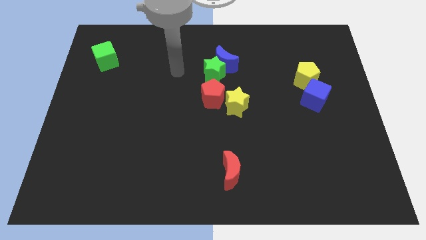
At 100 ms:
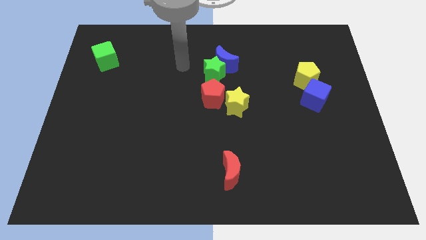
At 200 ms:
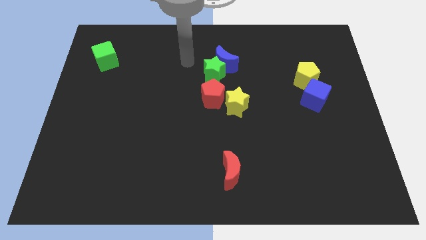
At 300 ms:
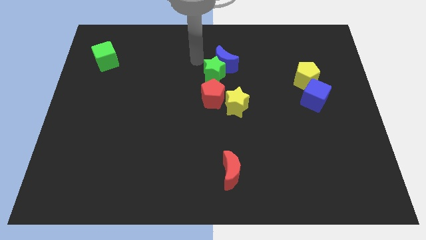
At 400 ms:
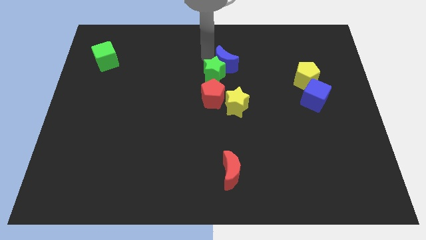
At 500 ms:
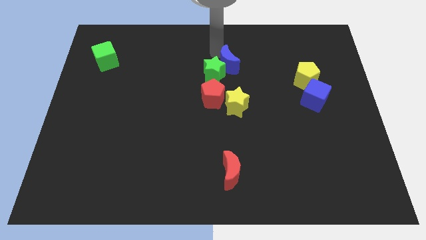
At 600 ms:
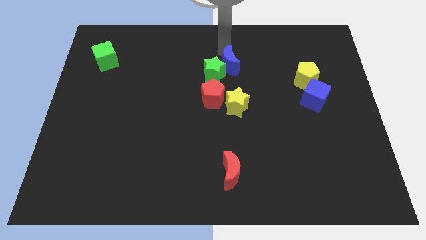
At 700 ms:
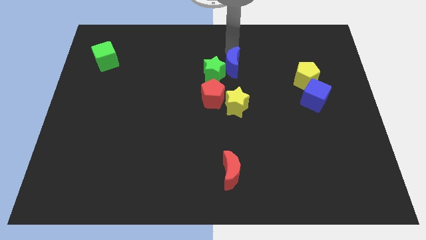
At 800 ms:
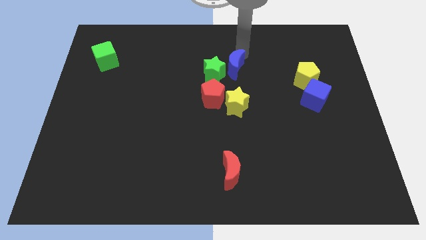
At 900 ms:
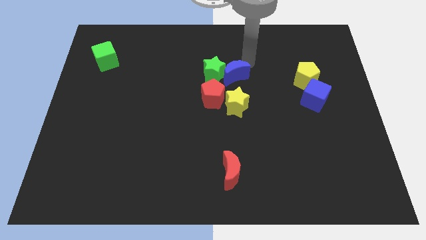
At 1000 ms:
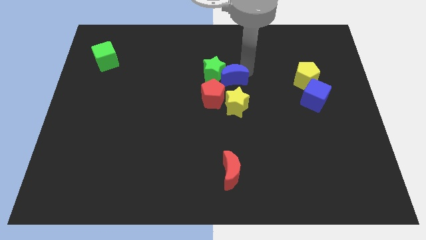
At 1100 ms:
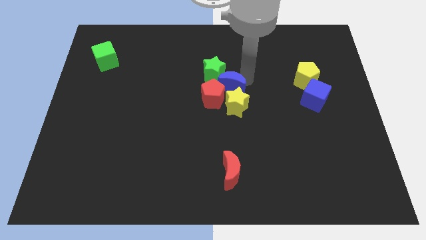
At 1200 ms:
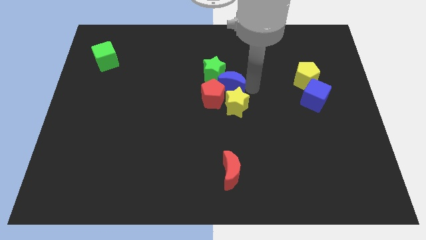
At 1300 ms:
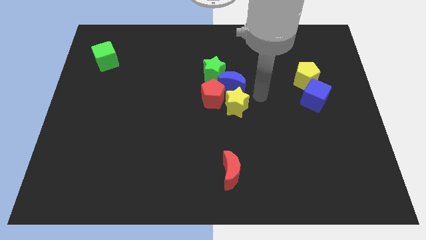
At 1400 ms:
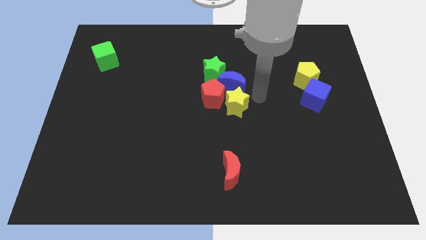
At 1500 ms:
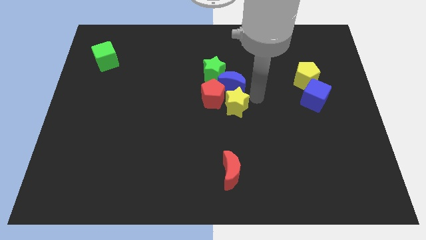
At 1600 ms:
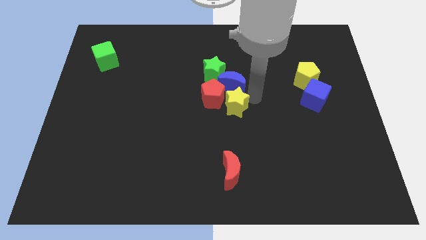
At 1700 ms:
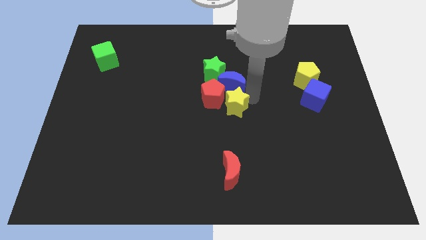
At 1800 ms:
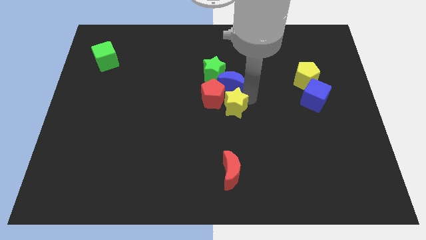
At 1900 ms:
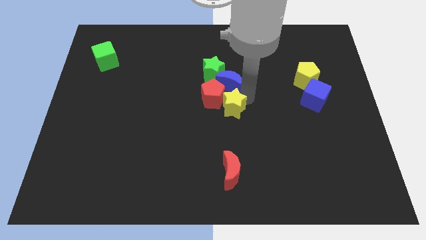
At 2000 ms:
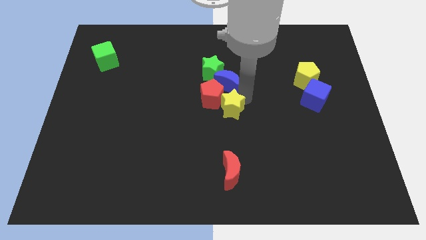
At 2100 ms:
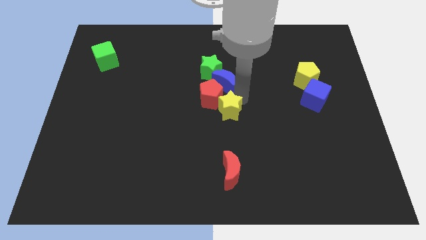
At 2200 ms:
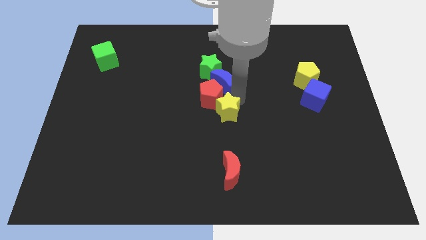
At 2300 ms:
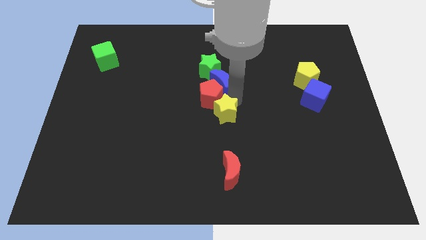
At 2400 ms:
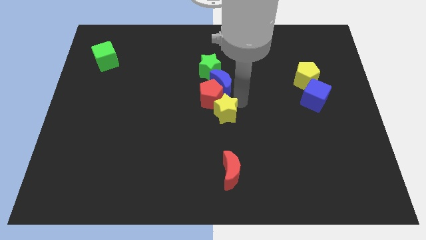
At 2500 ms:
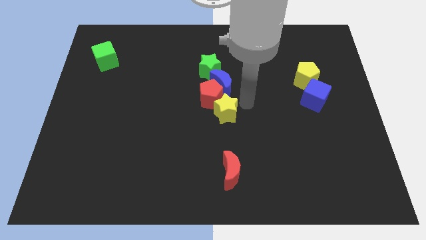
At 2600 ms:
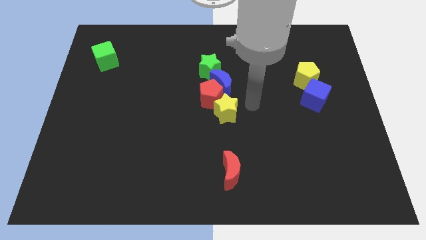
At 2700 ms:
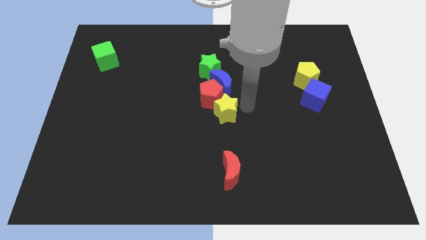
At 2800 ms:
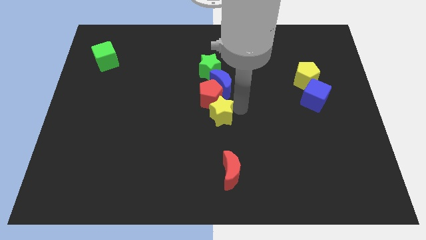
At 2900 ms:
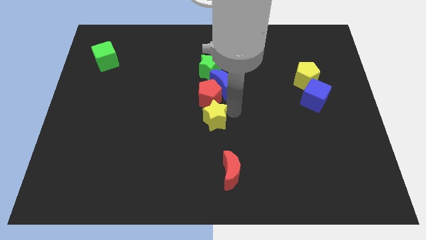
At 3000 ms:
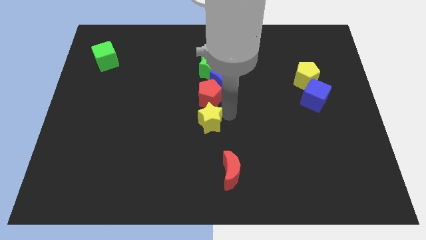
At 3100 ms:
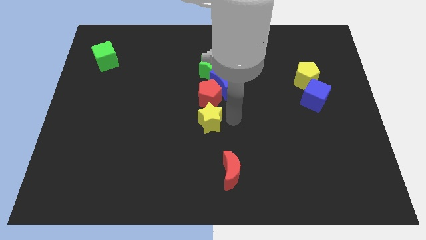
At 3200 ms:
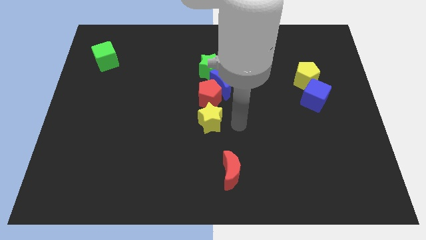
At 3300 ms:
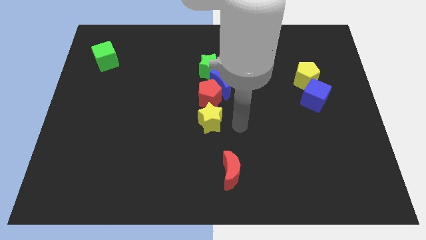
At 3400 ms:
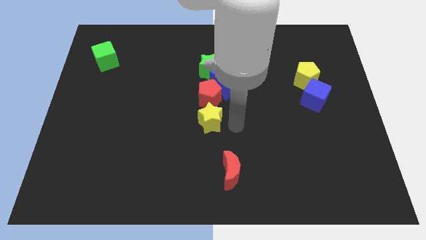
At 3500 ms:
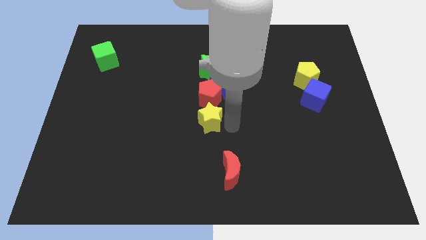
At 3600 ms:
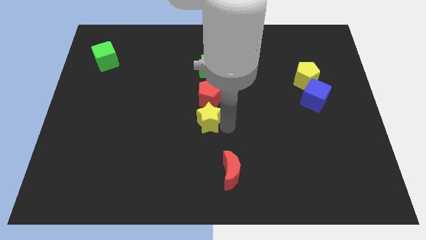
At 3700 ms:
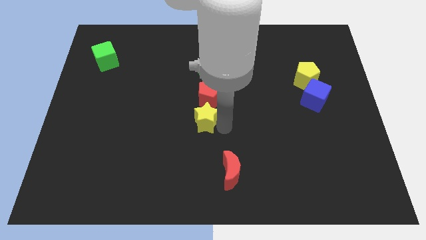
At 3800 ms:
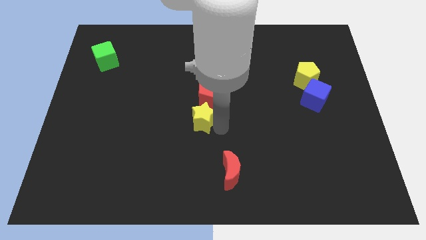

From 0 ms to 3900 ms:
push the yellow star a little bit to the left

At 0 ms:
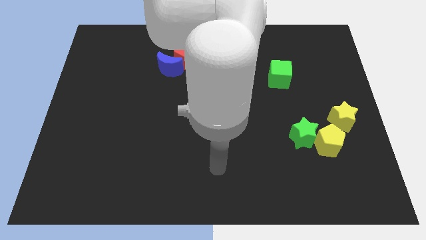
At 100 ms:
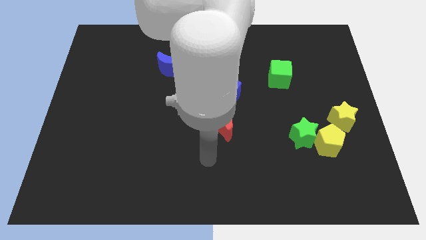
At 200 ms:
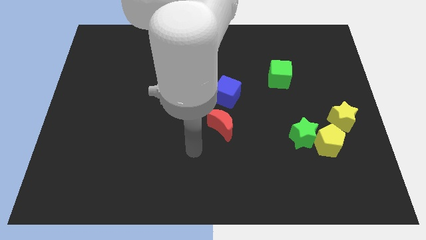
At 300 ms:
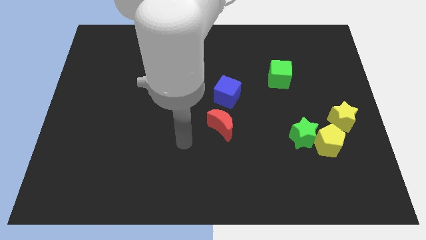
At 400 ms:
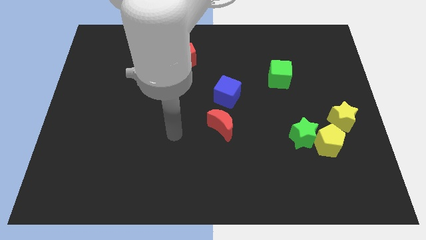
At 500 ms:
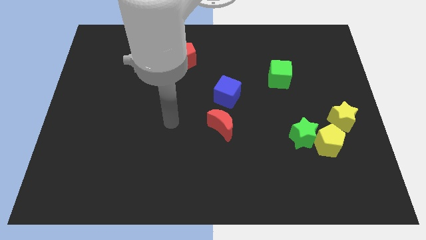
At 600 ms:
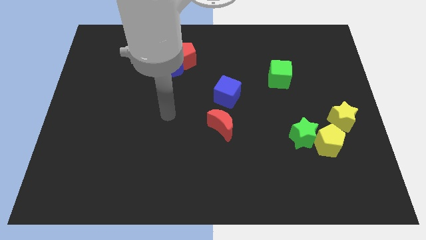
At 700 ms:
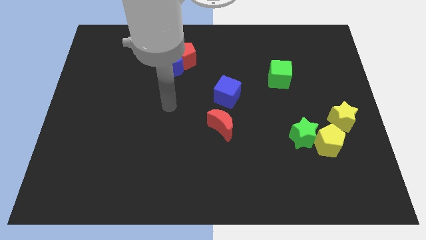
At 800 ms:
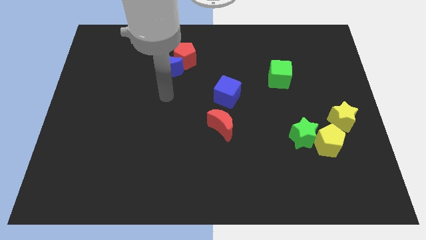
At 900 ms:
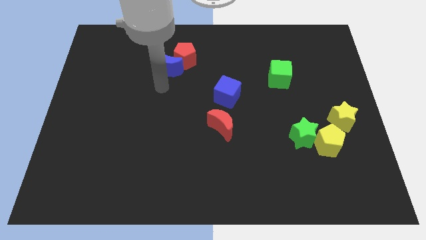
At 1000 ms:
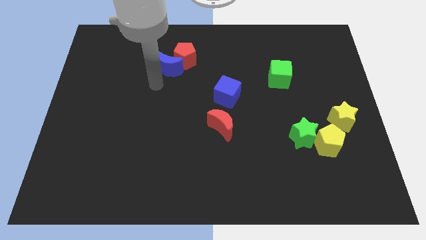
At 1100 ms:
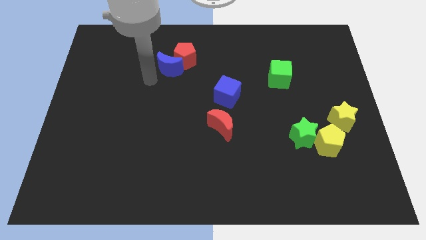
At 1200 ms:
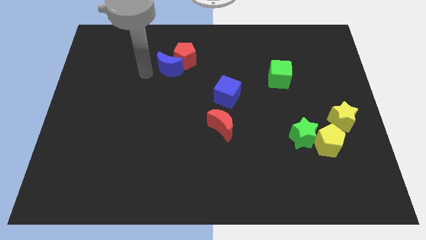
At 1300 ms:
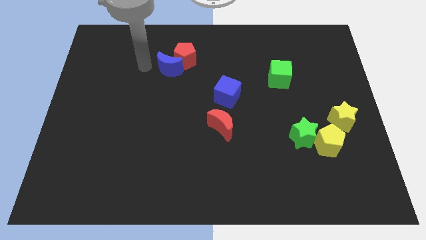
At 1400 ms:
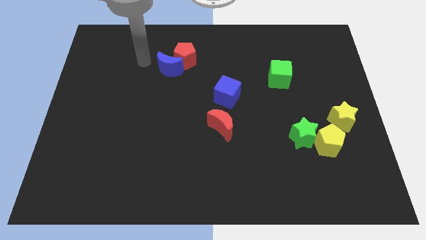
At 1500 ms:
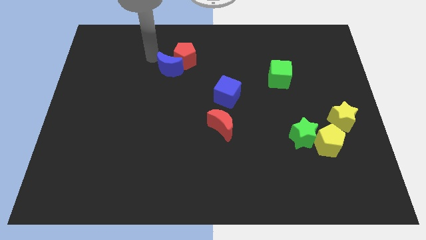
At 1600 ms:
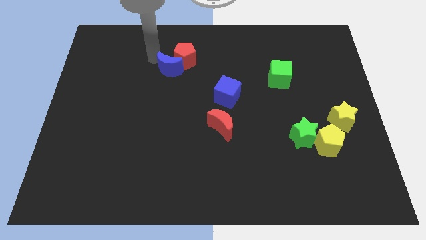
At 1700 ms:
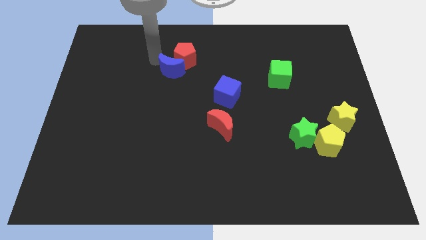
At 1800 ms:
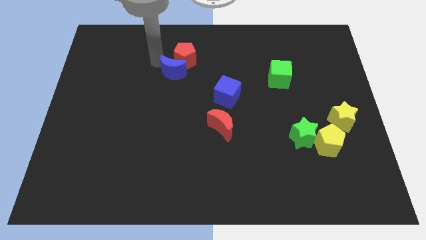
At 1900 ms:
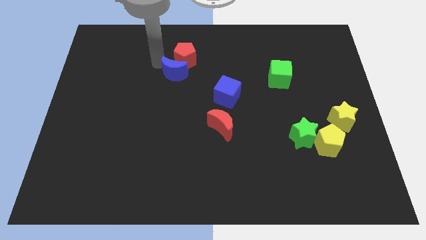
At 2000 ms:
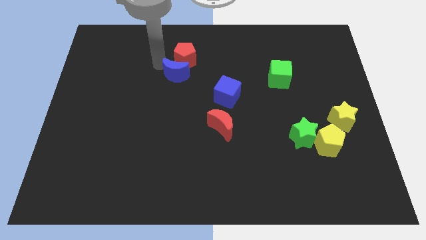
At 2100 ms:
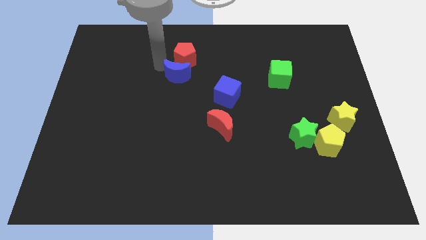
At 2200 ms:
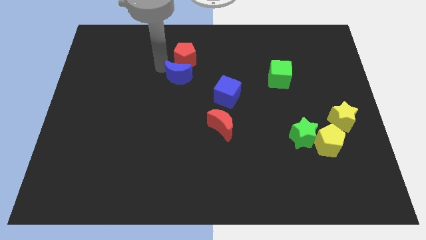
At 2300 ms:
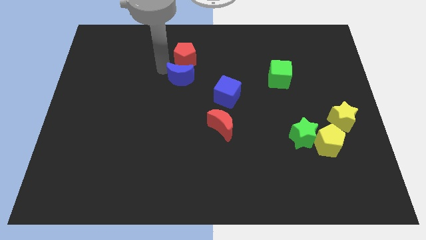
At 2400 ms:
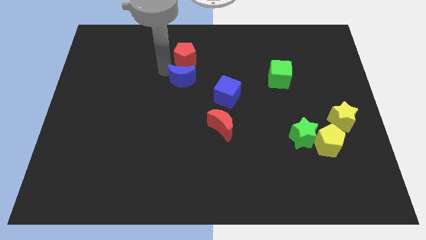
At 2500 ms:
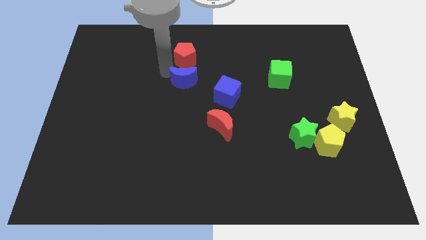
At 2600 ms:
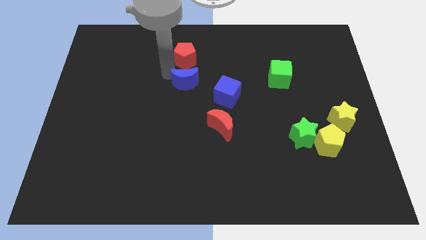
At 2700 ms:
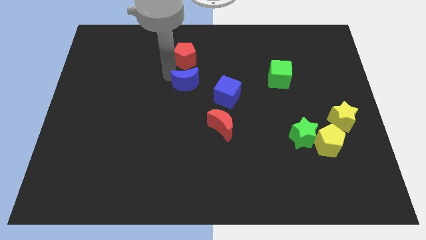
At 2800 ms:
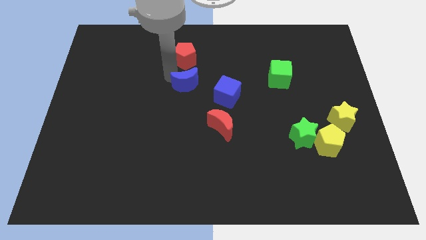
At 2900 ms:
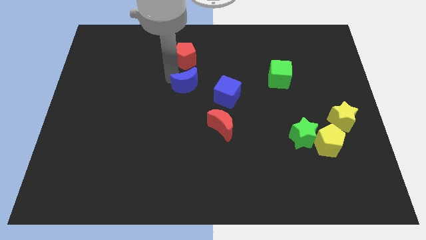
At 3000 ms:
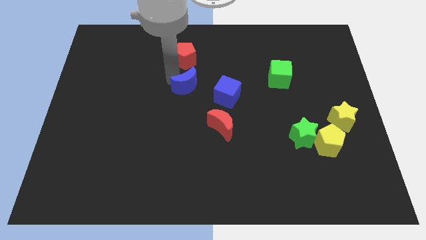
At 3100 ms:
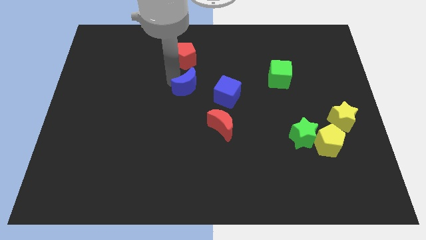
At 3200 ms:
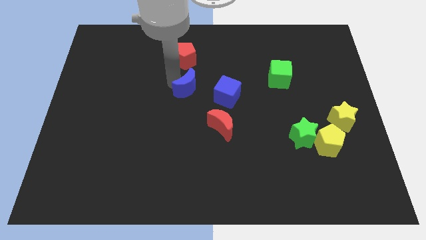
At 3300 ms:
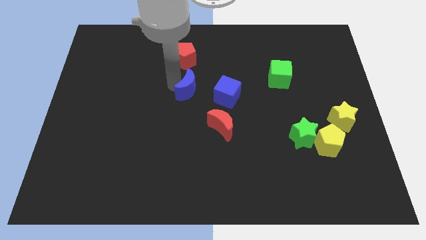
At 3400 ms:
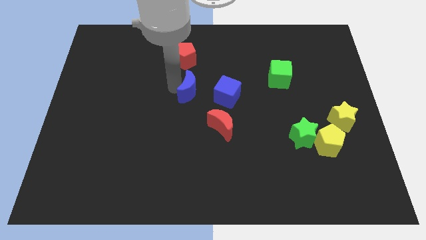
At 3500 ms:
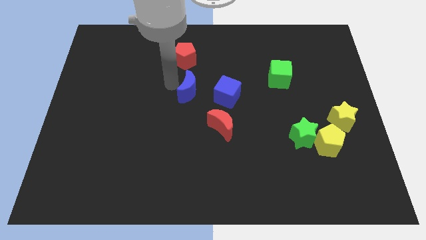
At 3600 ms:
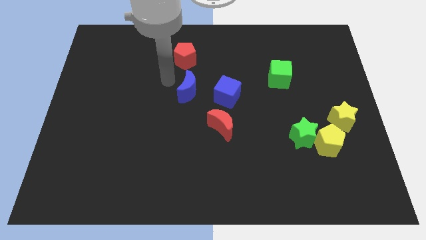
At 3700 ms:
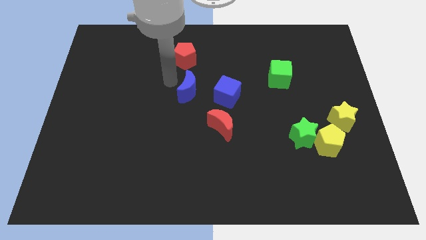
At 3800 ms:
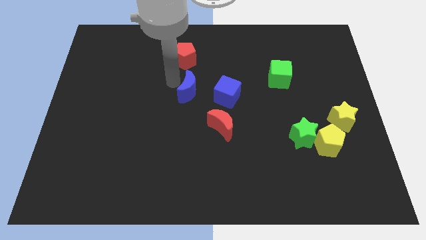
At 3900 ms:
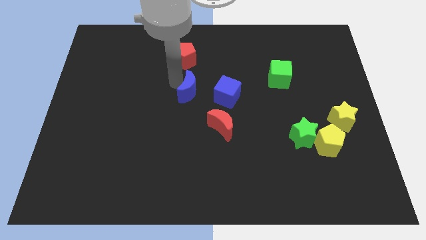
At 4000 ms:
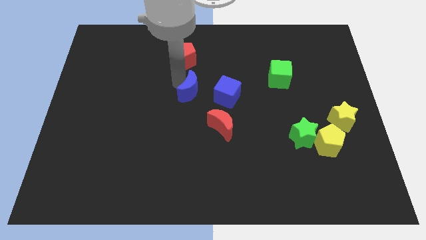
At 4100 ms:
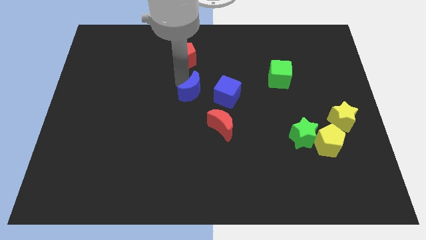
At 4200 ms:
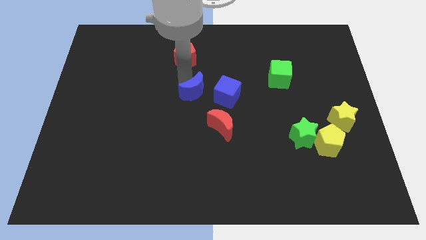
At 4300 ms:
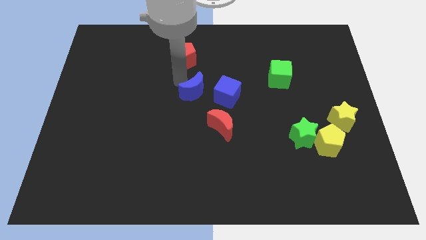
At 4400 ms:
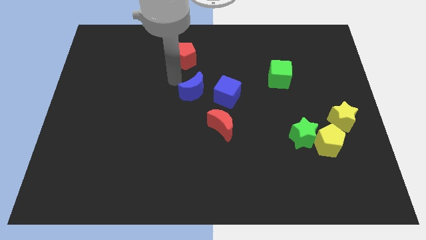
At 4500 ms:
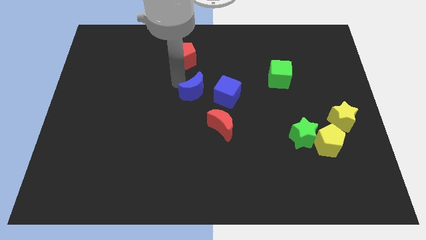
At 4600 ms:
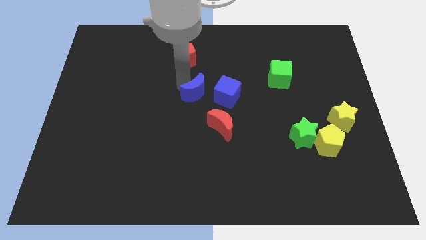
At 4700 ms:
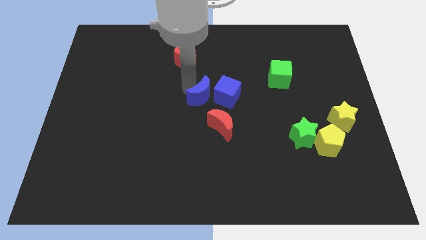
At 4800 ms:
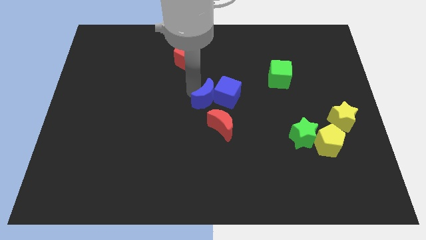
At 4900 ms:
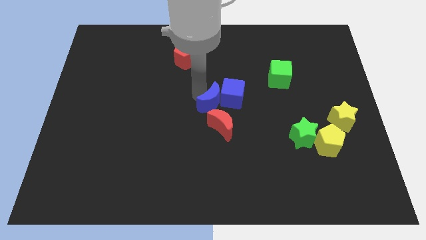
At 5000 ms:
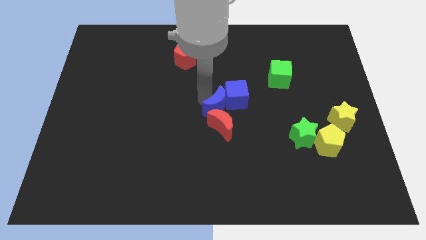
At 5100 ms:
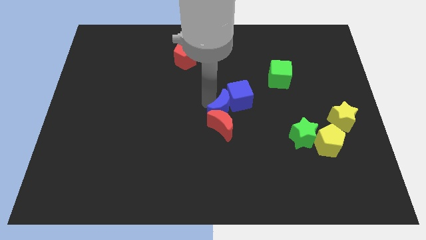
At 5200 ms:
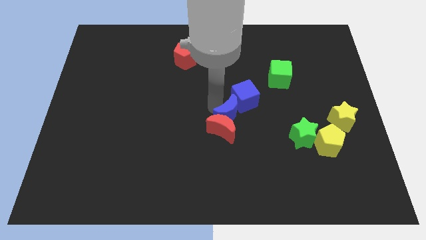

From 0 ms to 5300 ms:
push the blue moon downwards and then to the right
